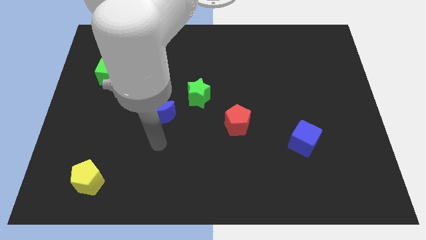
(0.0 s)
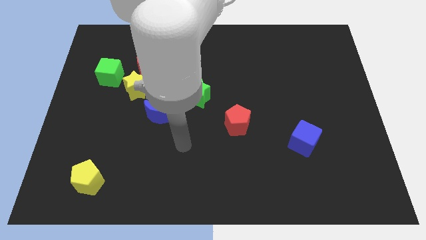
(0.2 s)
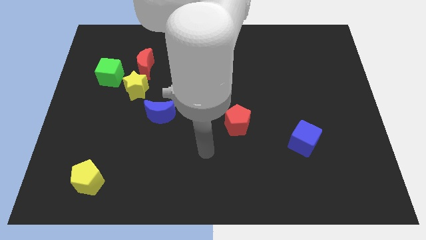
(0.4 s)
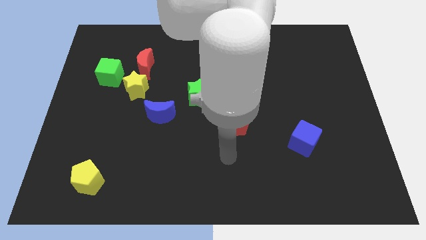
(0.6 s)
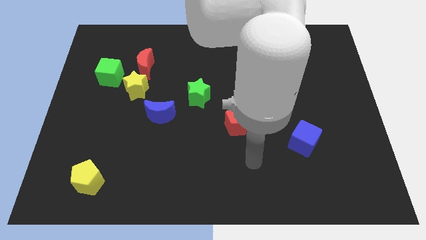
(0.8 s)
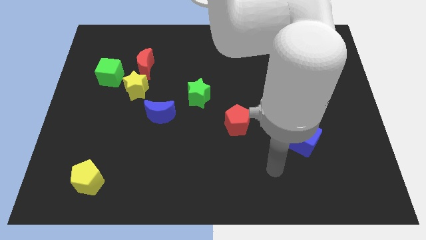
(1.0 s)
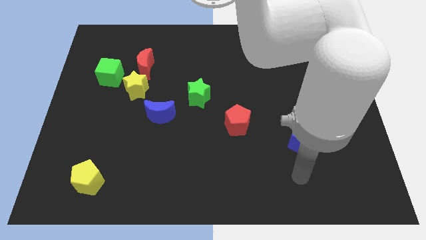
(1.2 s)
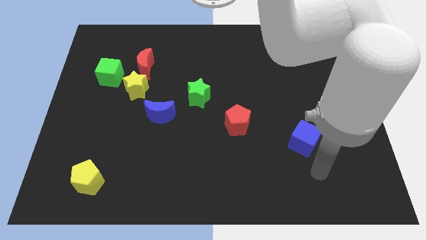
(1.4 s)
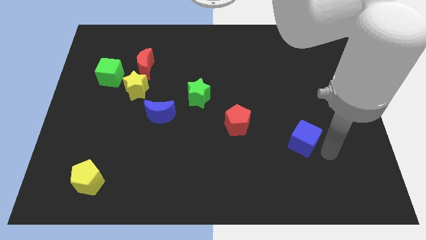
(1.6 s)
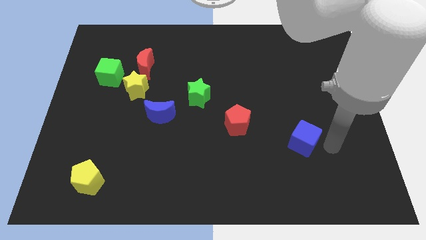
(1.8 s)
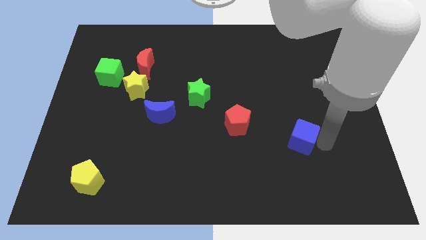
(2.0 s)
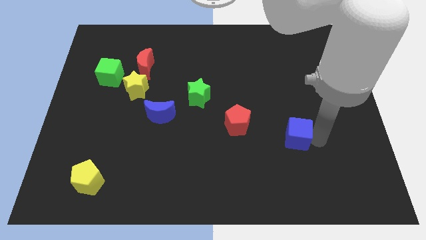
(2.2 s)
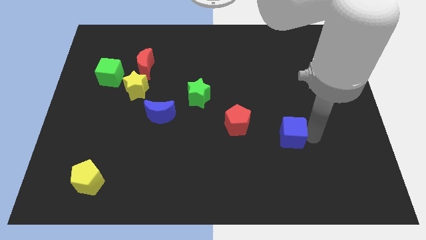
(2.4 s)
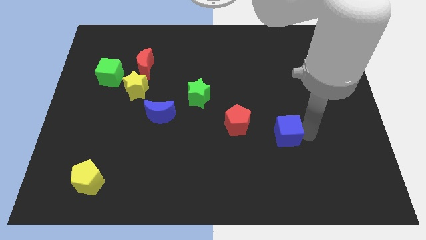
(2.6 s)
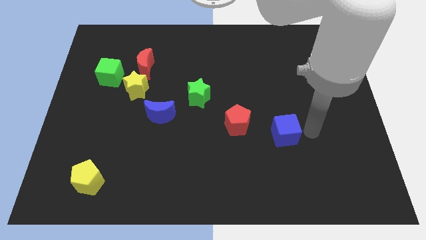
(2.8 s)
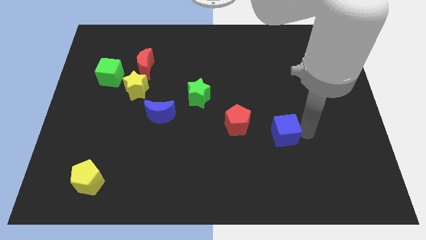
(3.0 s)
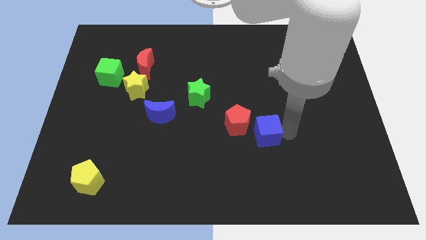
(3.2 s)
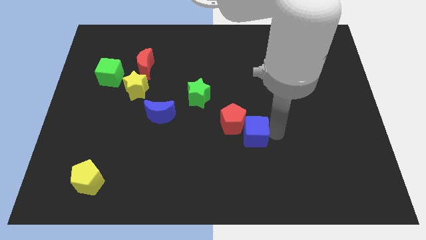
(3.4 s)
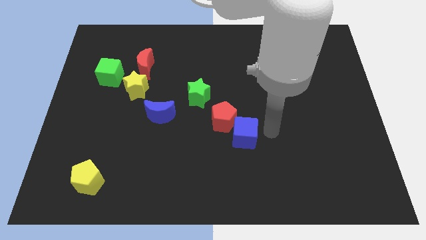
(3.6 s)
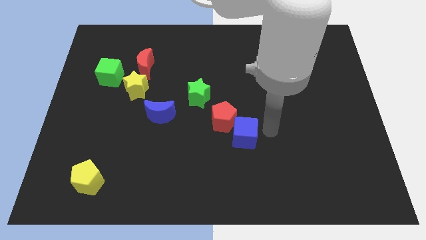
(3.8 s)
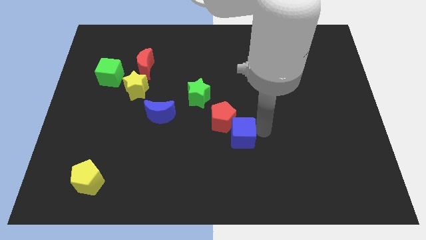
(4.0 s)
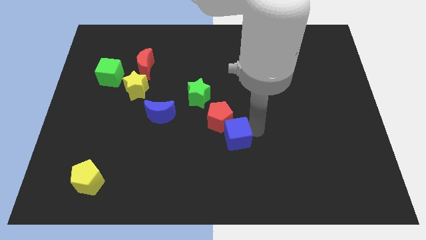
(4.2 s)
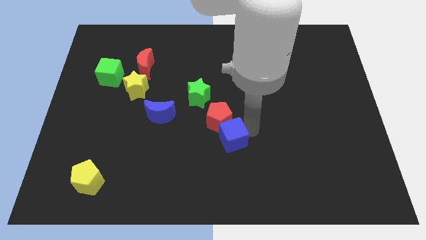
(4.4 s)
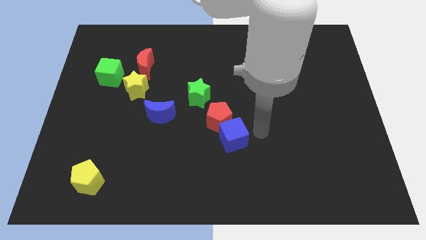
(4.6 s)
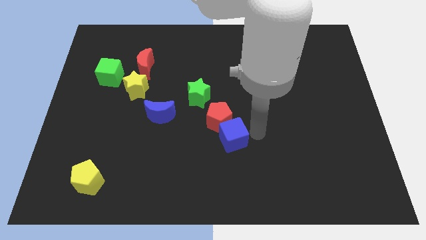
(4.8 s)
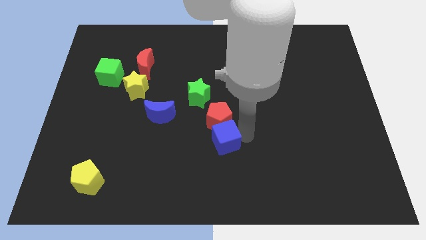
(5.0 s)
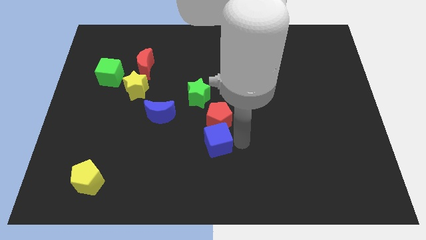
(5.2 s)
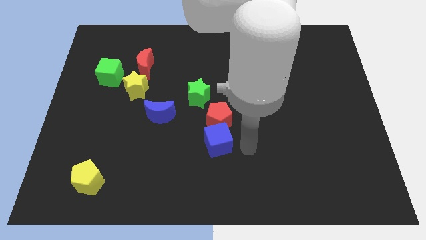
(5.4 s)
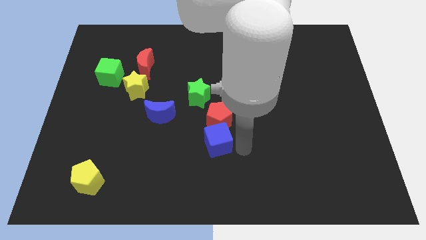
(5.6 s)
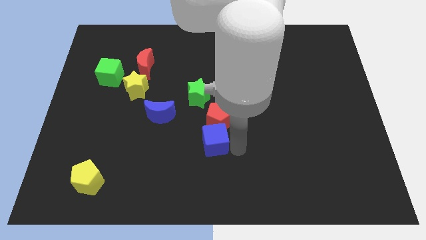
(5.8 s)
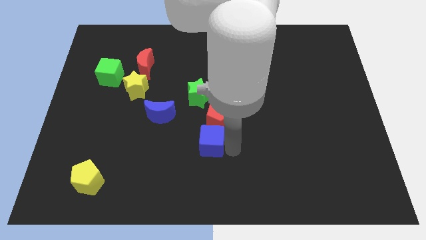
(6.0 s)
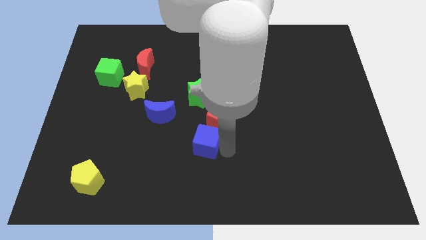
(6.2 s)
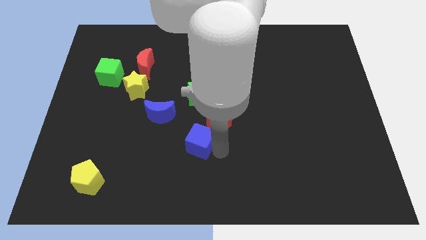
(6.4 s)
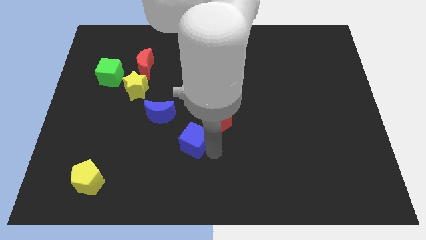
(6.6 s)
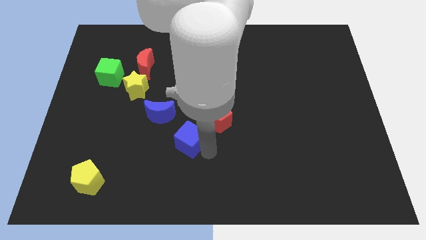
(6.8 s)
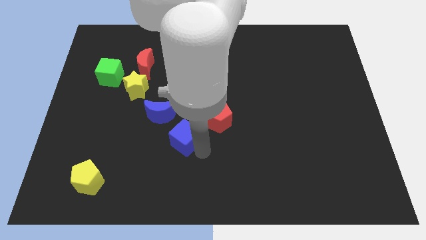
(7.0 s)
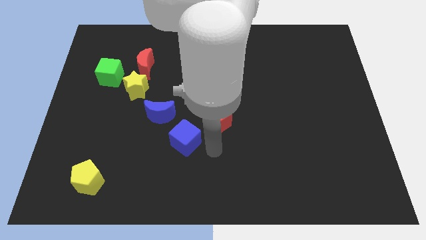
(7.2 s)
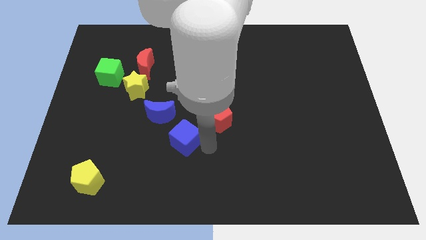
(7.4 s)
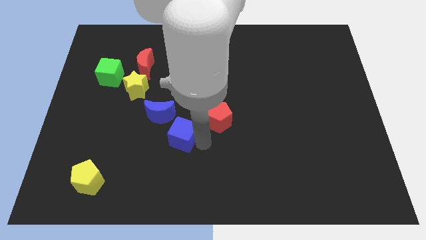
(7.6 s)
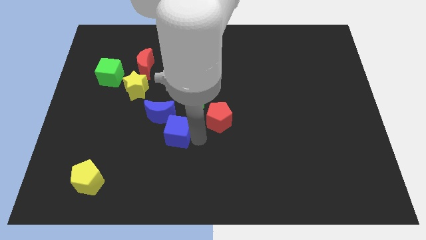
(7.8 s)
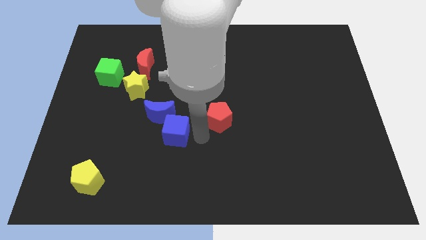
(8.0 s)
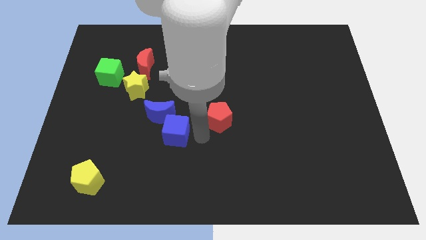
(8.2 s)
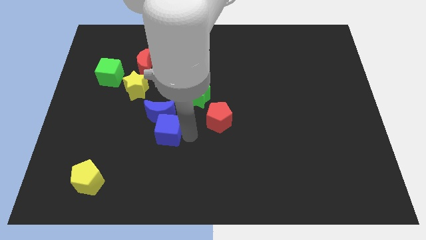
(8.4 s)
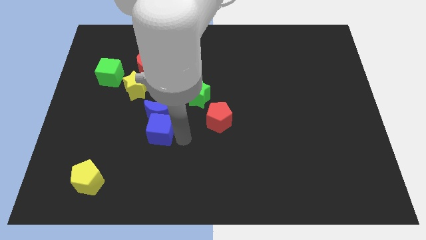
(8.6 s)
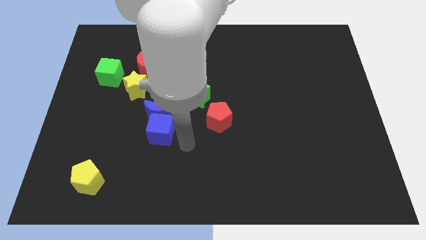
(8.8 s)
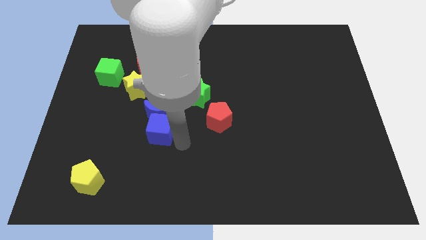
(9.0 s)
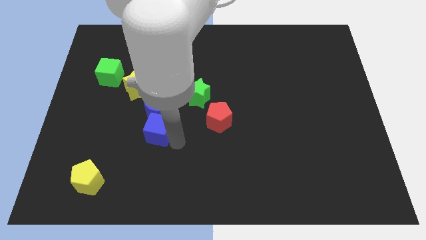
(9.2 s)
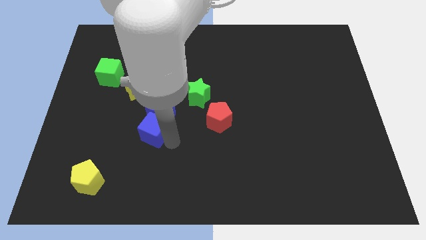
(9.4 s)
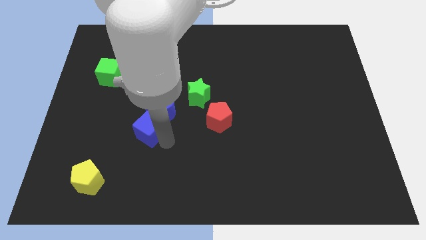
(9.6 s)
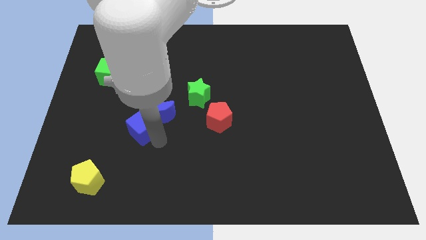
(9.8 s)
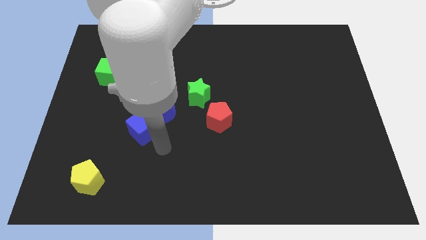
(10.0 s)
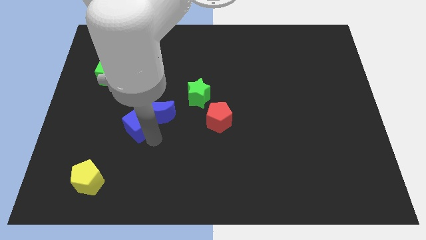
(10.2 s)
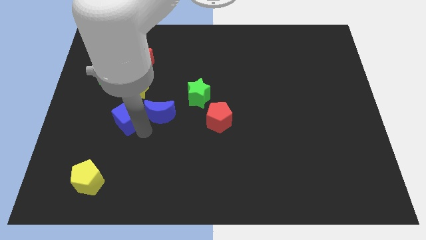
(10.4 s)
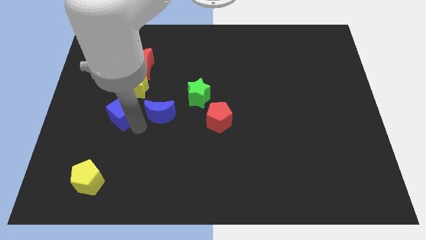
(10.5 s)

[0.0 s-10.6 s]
move the blue cube to the bottom left of the yellow star

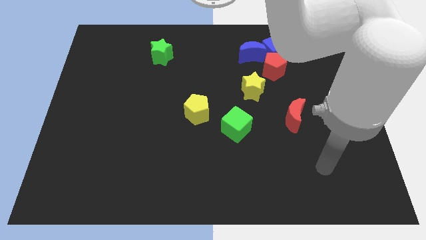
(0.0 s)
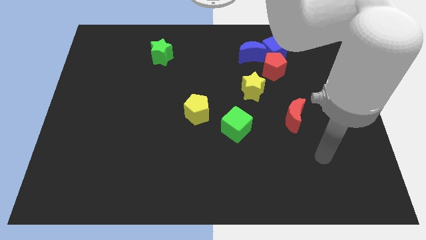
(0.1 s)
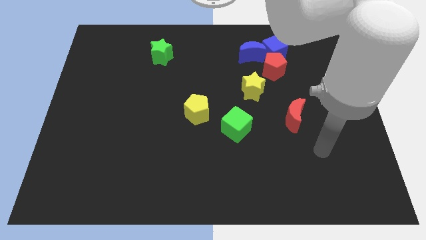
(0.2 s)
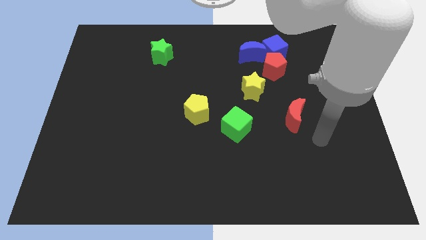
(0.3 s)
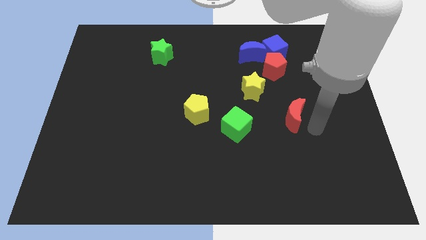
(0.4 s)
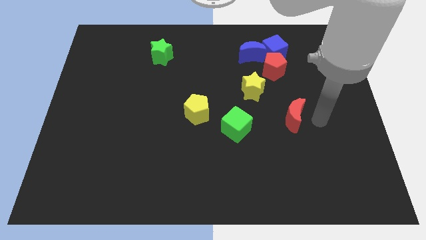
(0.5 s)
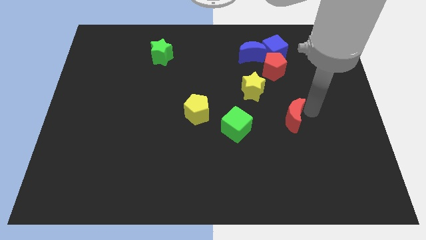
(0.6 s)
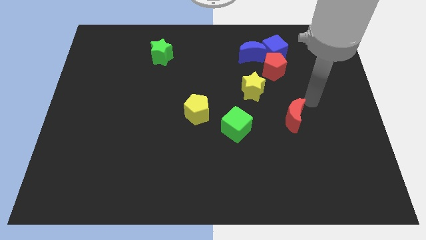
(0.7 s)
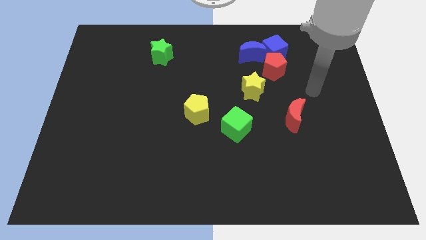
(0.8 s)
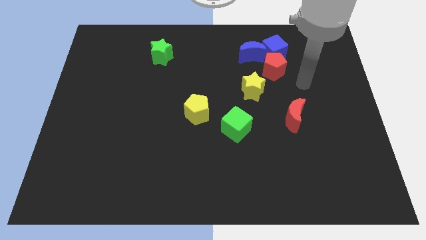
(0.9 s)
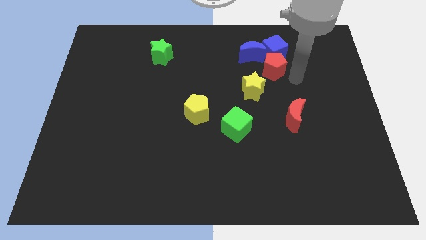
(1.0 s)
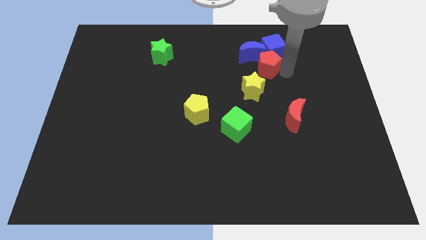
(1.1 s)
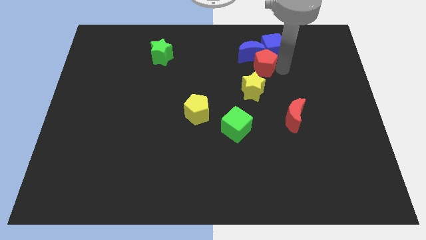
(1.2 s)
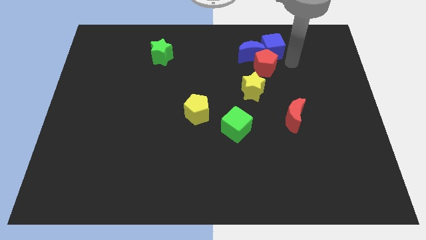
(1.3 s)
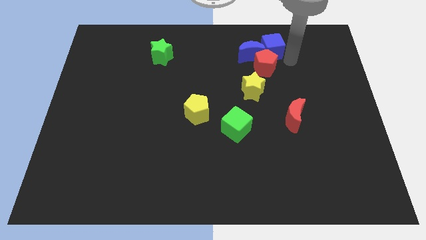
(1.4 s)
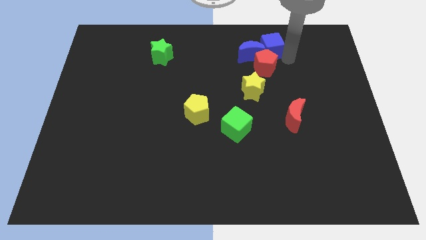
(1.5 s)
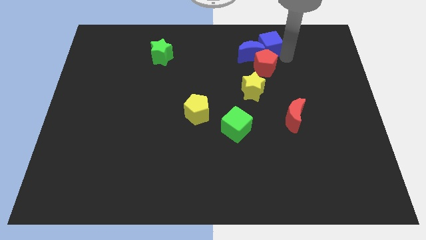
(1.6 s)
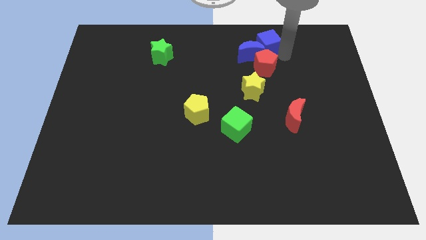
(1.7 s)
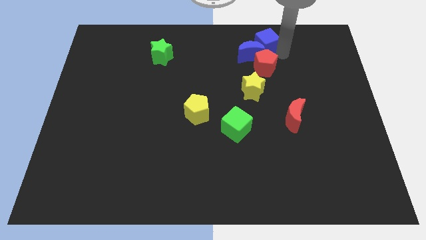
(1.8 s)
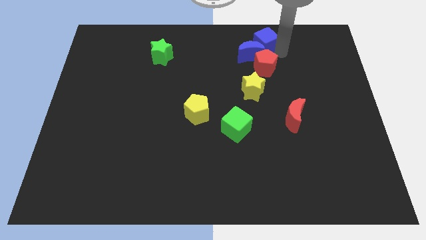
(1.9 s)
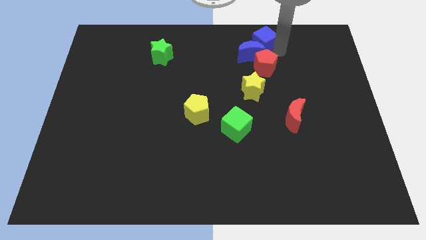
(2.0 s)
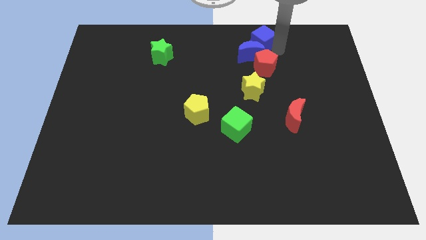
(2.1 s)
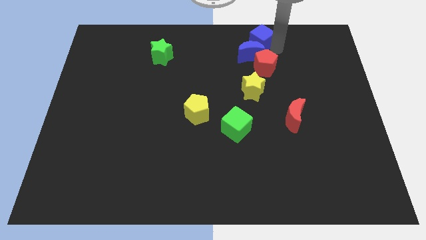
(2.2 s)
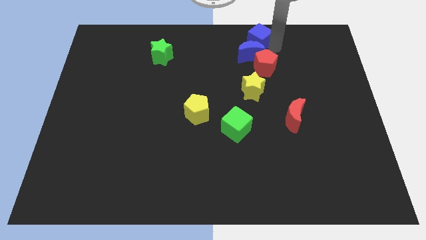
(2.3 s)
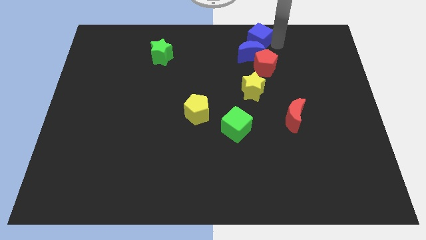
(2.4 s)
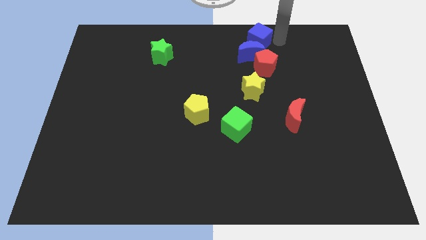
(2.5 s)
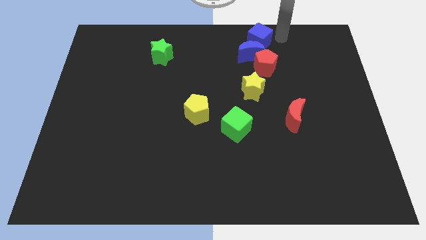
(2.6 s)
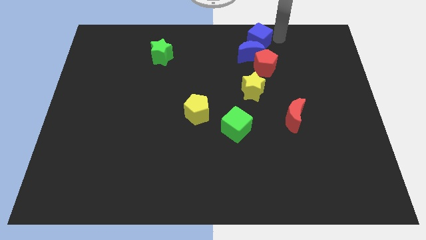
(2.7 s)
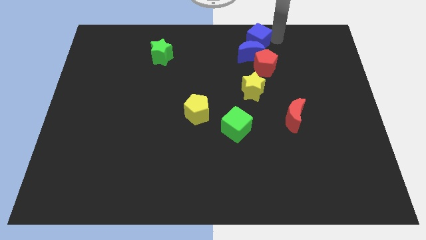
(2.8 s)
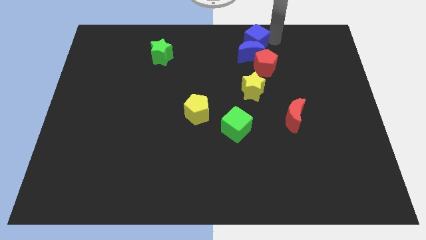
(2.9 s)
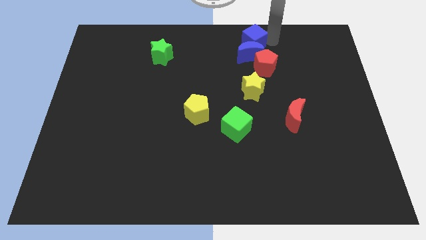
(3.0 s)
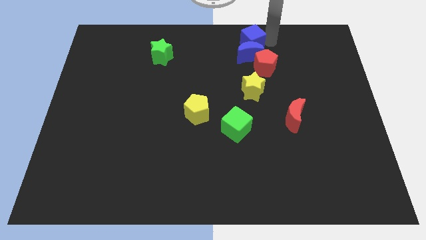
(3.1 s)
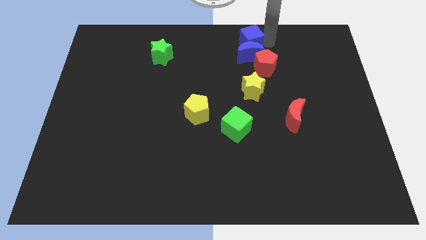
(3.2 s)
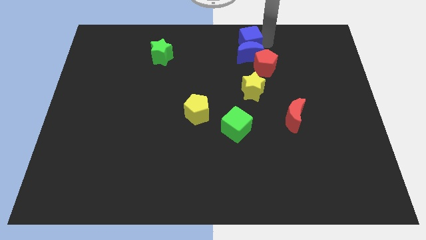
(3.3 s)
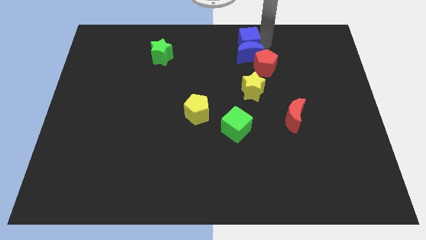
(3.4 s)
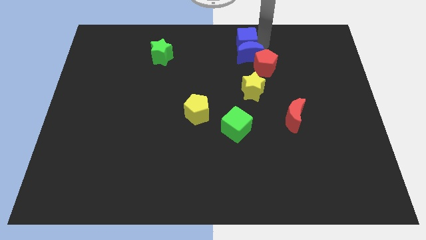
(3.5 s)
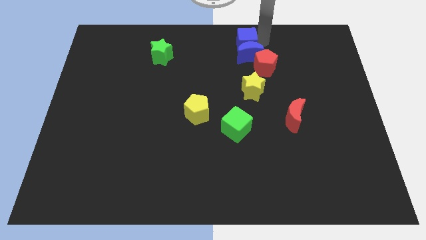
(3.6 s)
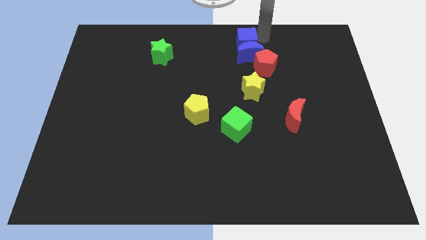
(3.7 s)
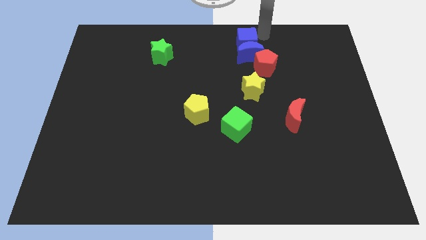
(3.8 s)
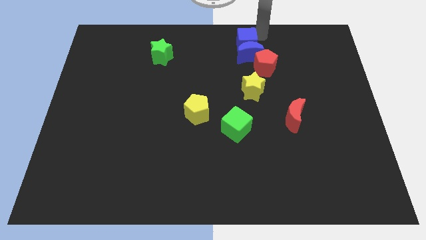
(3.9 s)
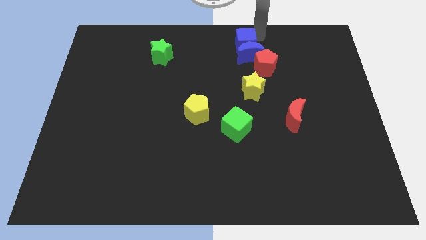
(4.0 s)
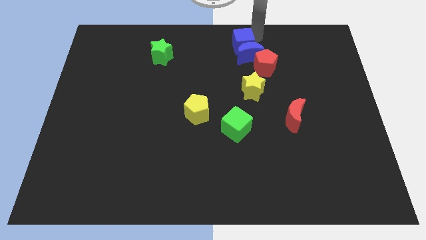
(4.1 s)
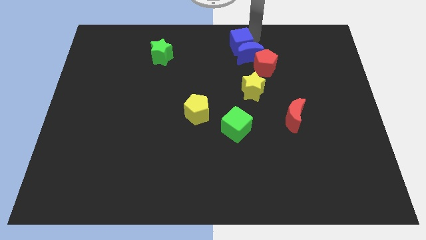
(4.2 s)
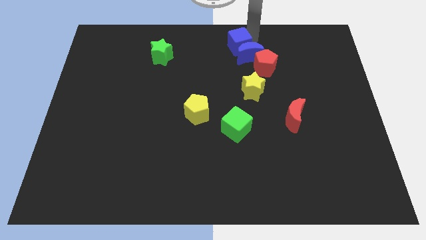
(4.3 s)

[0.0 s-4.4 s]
push the blue cube to the left side of the blue moon
